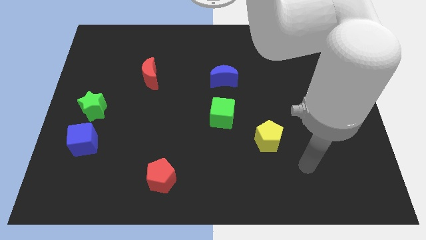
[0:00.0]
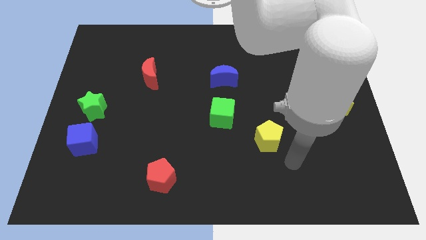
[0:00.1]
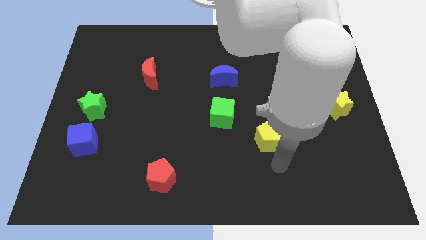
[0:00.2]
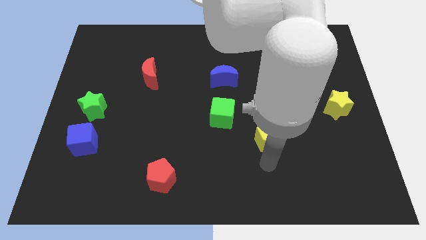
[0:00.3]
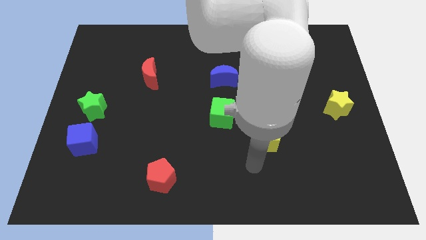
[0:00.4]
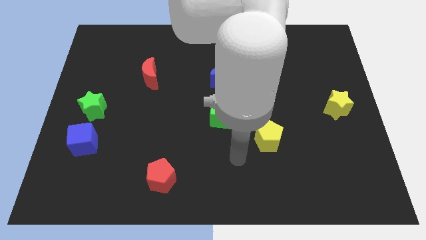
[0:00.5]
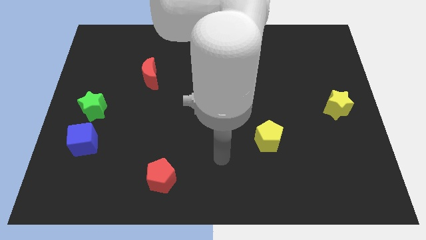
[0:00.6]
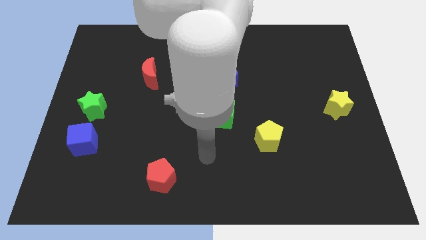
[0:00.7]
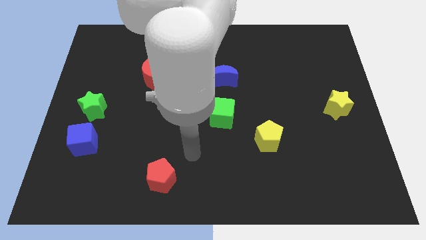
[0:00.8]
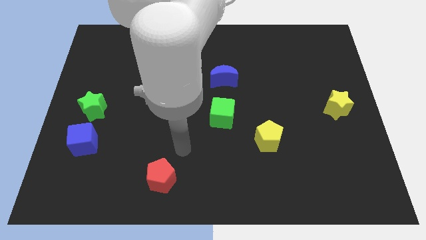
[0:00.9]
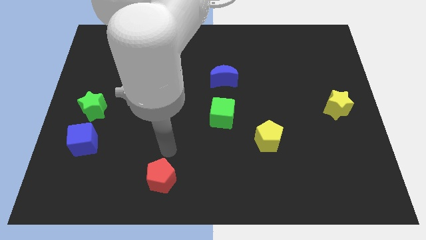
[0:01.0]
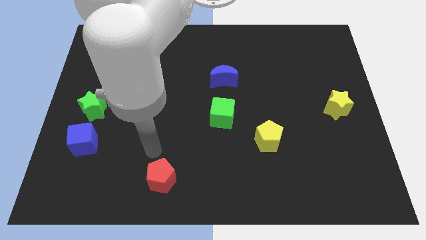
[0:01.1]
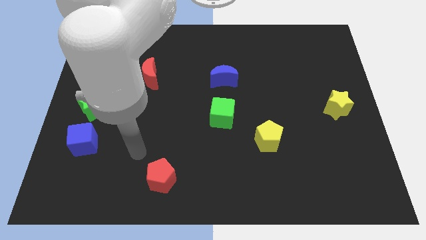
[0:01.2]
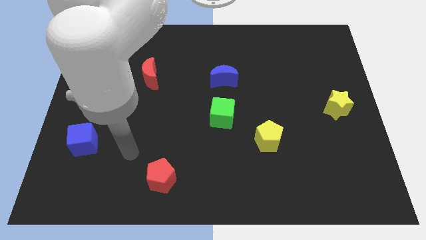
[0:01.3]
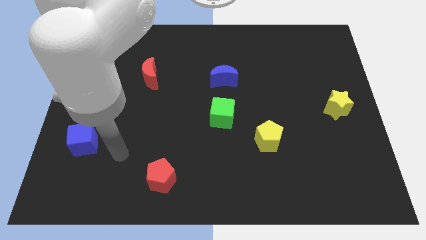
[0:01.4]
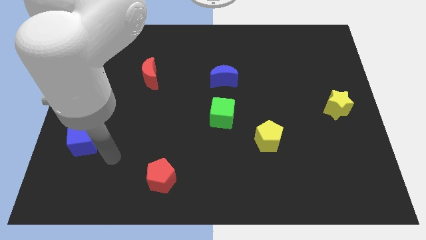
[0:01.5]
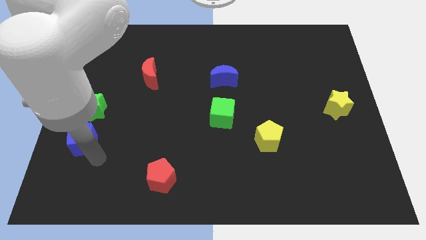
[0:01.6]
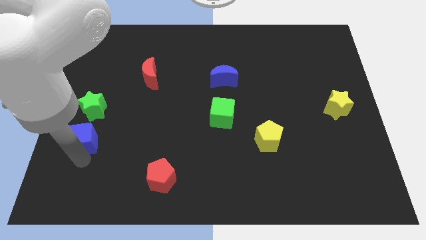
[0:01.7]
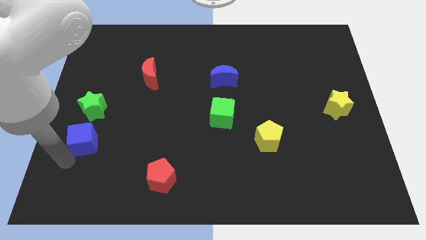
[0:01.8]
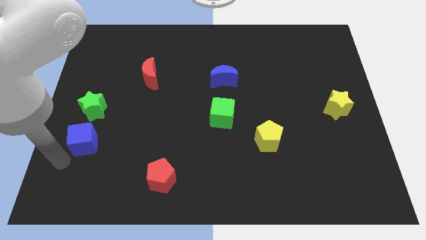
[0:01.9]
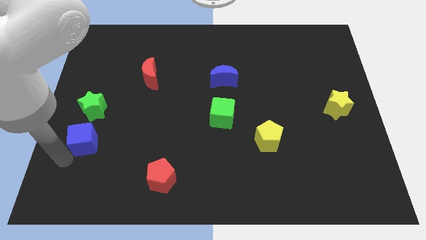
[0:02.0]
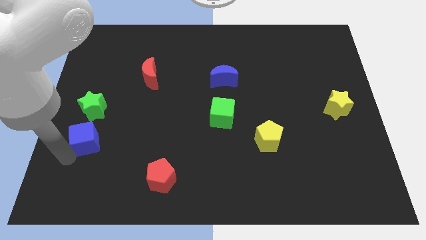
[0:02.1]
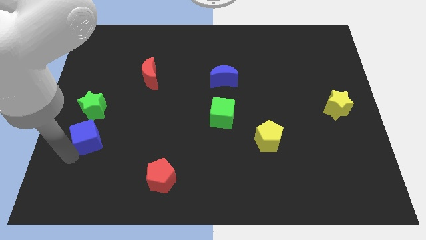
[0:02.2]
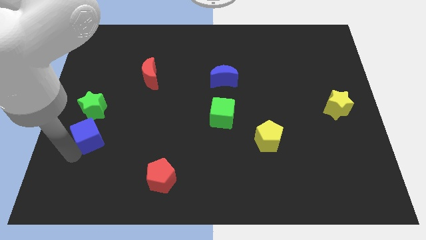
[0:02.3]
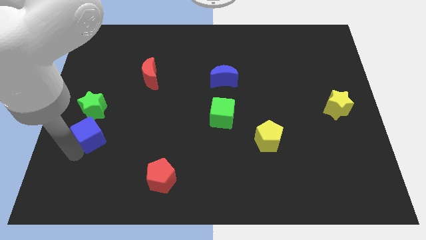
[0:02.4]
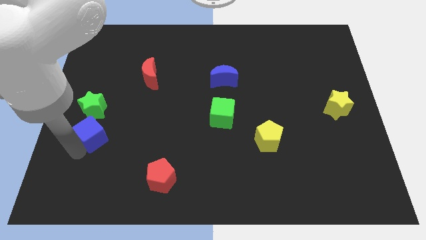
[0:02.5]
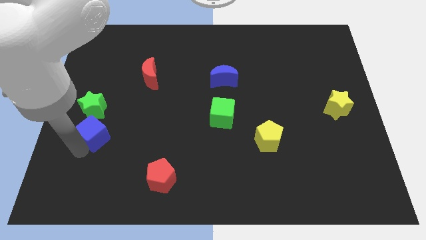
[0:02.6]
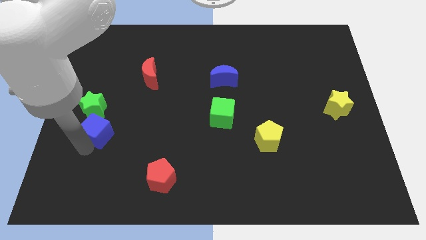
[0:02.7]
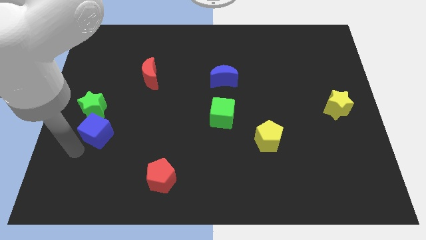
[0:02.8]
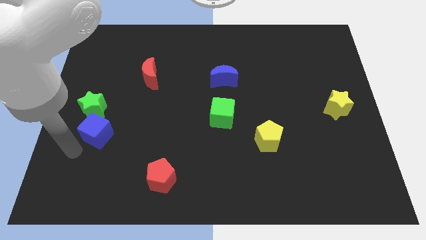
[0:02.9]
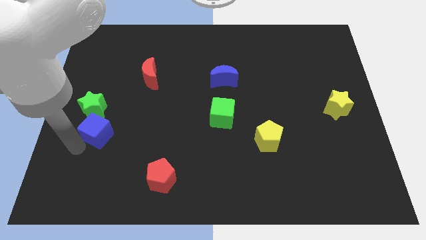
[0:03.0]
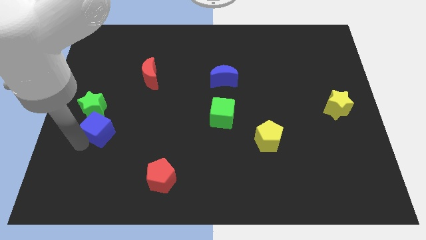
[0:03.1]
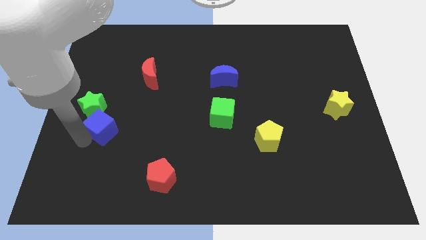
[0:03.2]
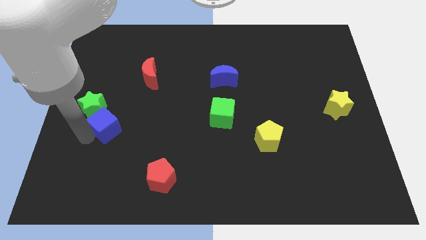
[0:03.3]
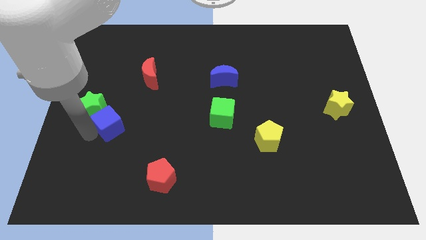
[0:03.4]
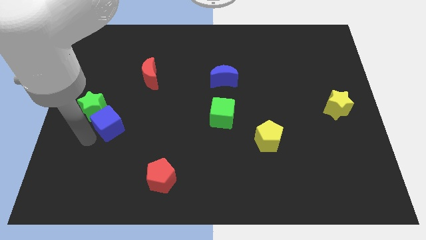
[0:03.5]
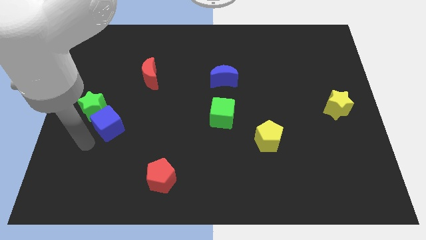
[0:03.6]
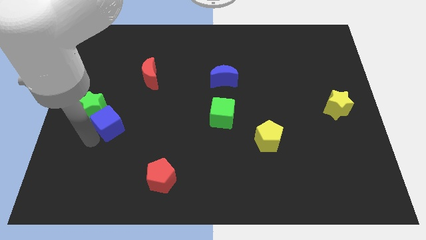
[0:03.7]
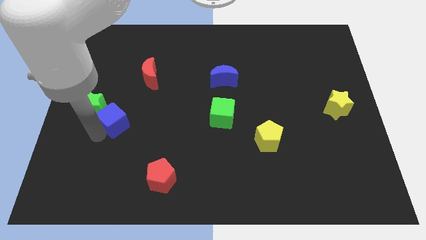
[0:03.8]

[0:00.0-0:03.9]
slightly move the blue cube diagonally upwards and to the right

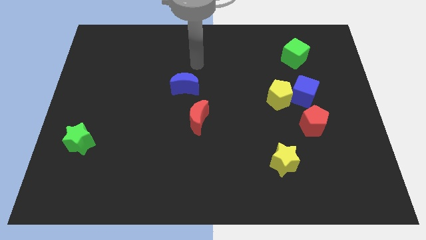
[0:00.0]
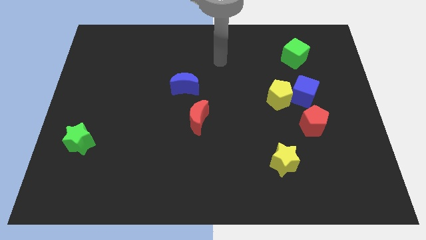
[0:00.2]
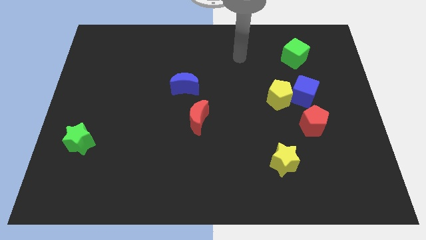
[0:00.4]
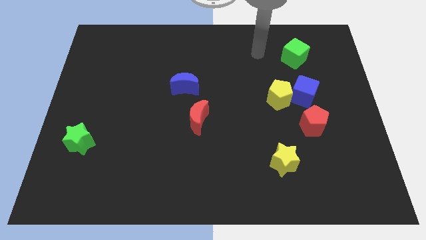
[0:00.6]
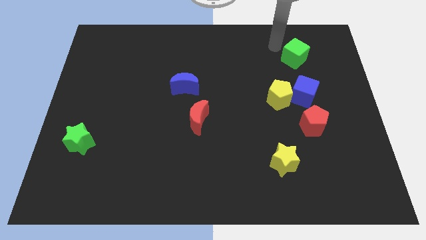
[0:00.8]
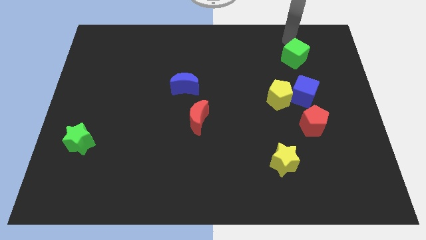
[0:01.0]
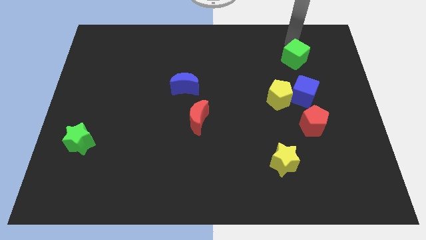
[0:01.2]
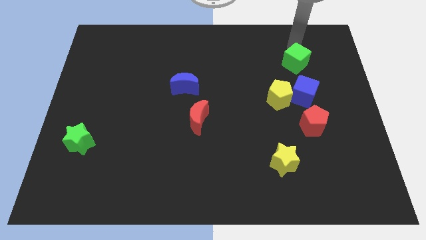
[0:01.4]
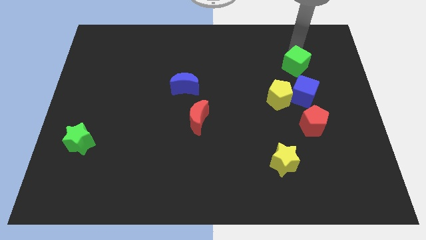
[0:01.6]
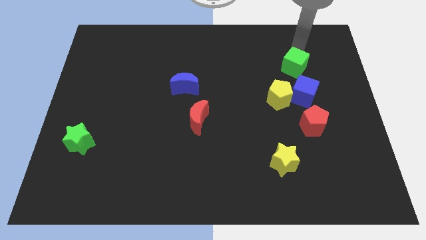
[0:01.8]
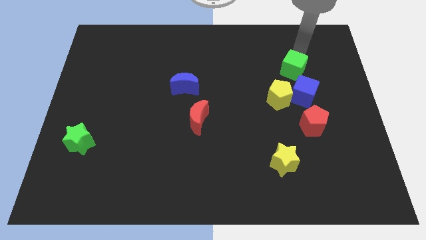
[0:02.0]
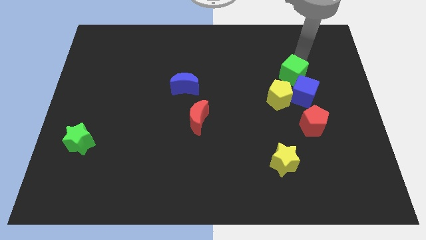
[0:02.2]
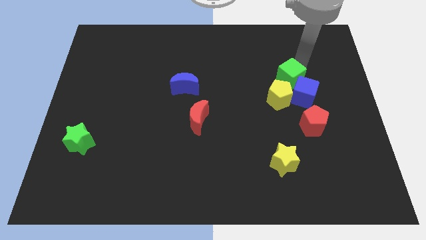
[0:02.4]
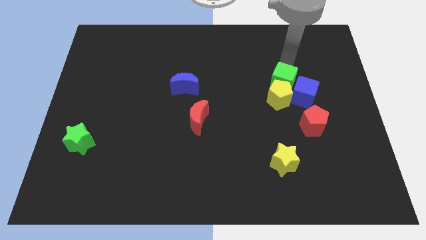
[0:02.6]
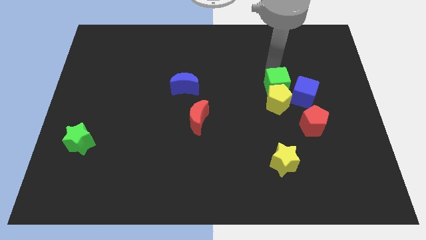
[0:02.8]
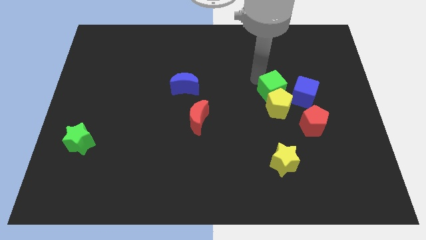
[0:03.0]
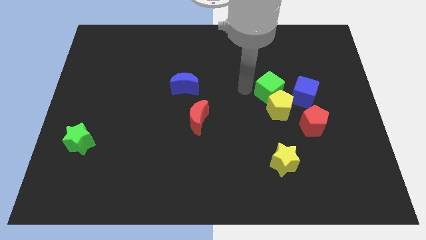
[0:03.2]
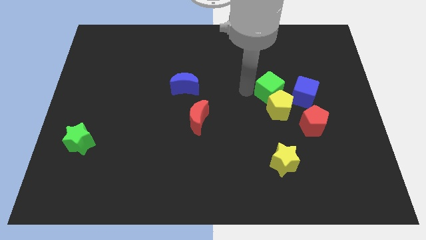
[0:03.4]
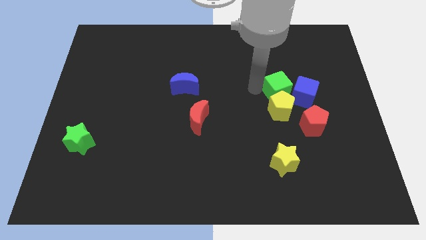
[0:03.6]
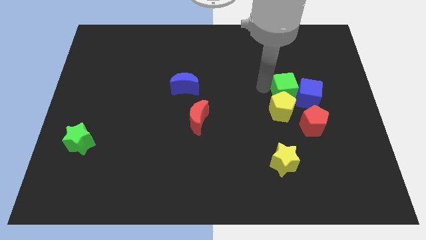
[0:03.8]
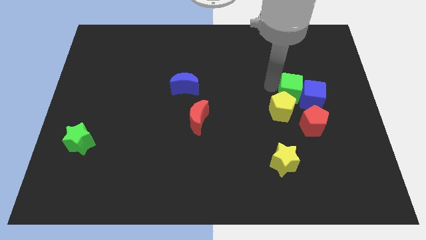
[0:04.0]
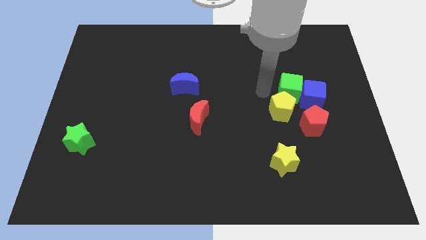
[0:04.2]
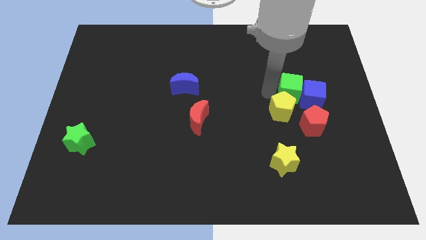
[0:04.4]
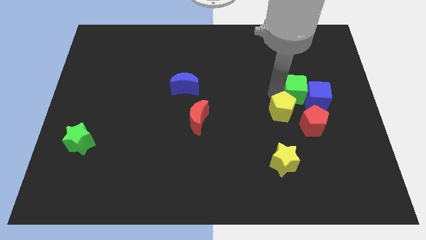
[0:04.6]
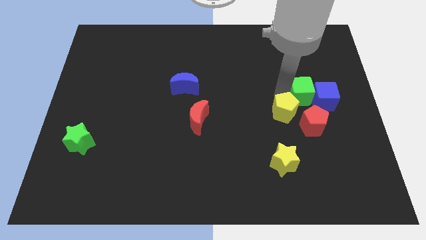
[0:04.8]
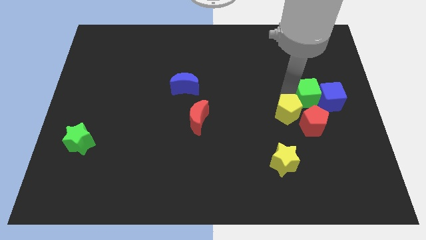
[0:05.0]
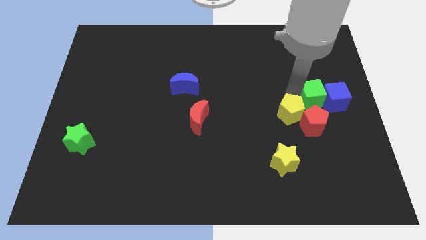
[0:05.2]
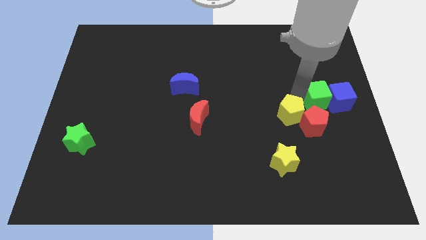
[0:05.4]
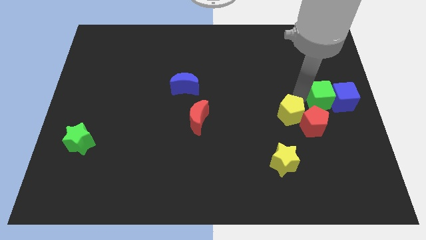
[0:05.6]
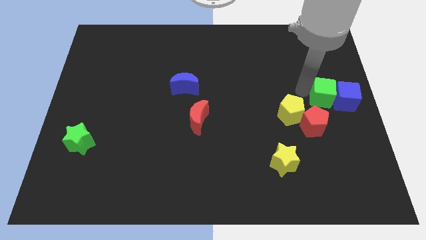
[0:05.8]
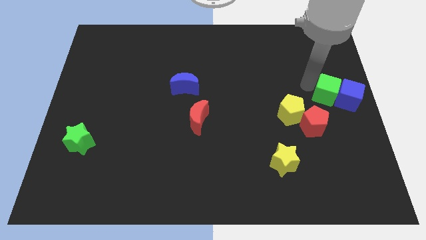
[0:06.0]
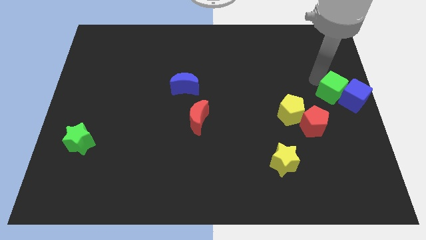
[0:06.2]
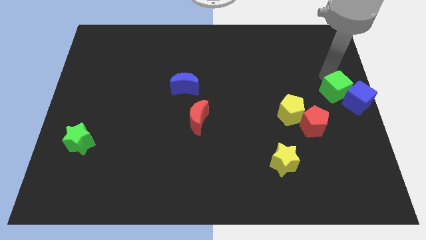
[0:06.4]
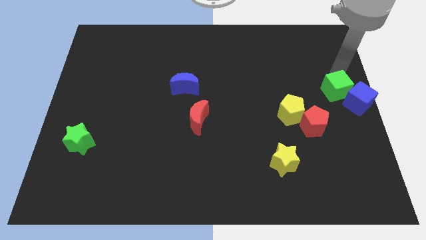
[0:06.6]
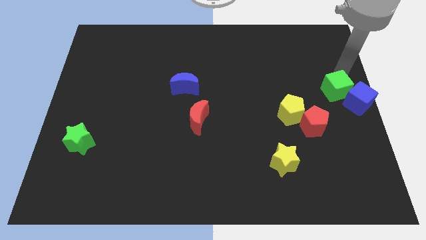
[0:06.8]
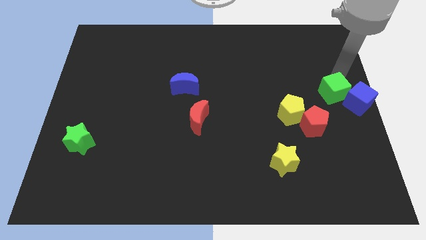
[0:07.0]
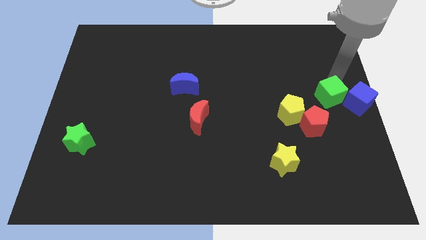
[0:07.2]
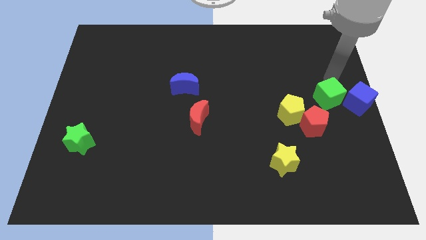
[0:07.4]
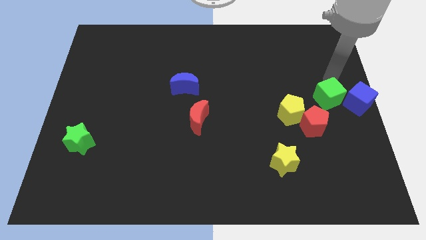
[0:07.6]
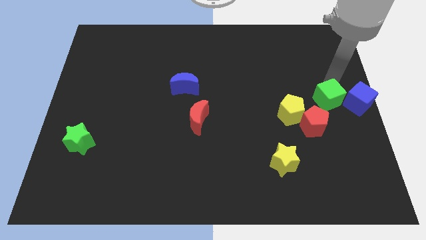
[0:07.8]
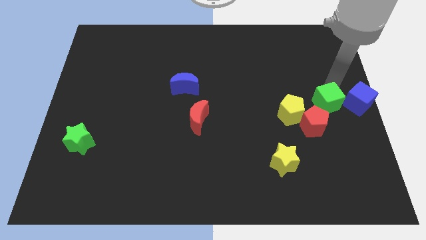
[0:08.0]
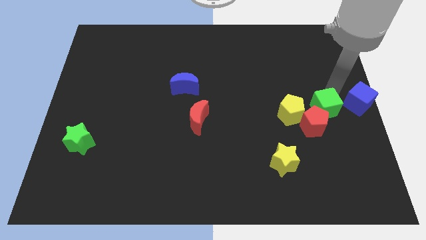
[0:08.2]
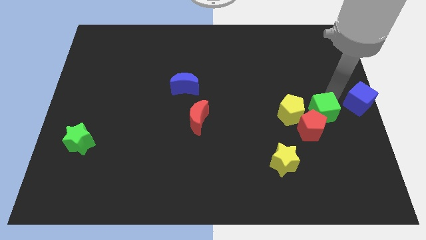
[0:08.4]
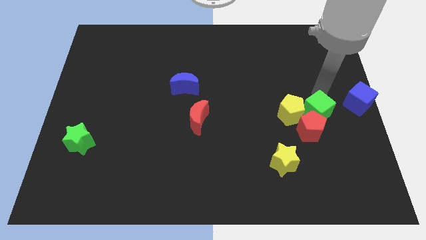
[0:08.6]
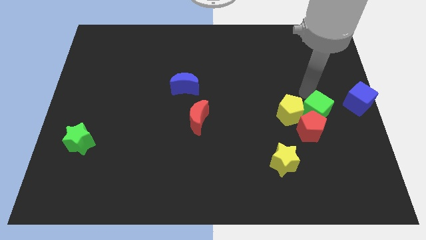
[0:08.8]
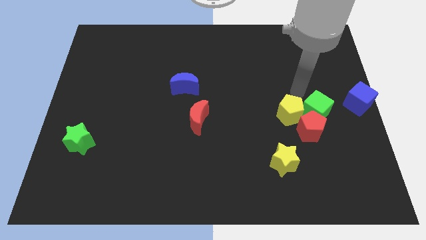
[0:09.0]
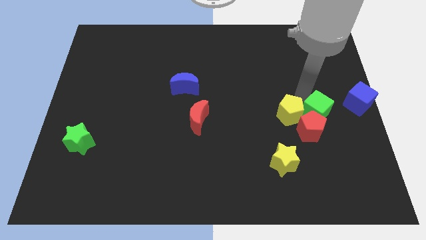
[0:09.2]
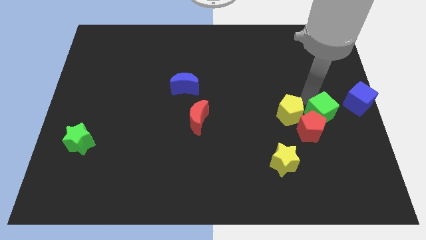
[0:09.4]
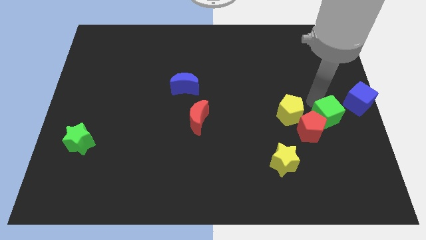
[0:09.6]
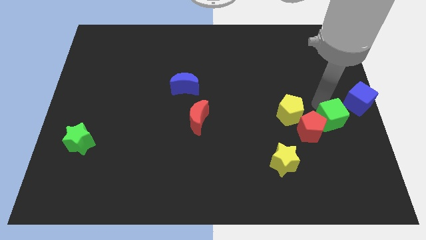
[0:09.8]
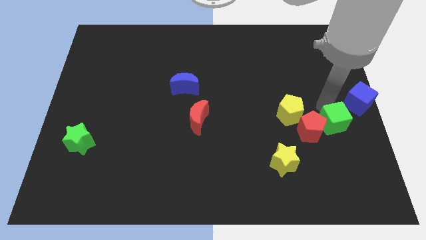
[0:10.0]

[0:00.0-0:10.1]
slide the green cube down
